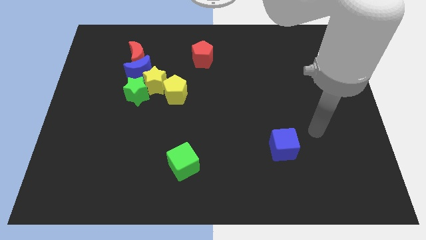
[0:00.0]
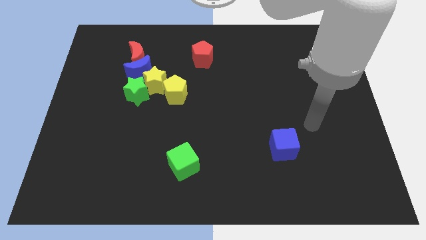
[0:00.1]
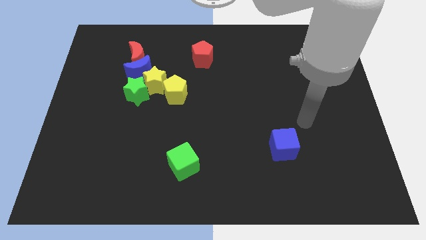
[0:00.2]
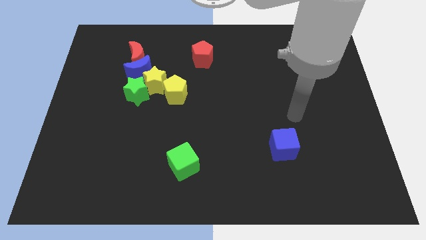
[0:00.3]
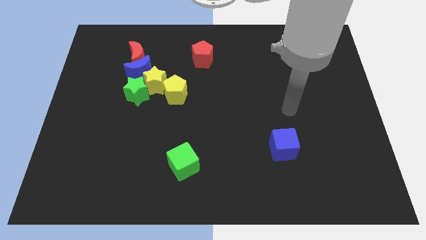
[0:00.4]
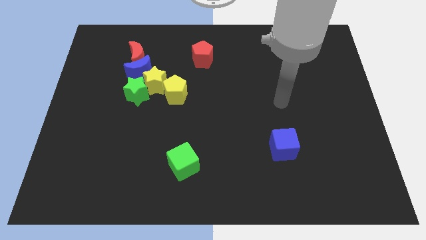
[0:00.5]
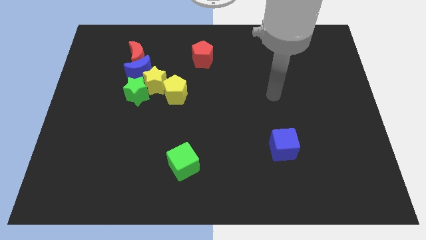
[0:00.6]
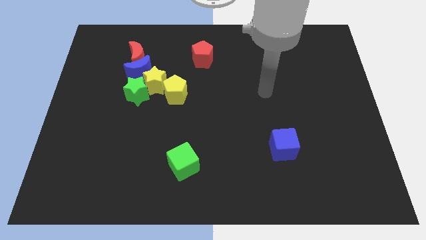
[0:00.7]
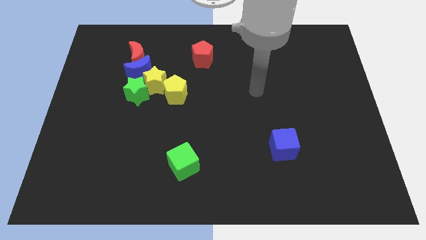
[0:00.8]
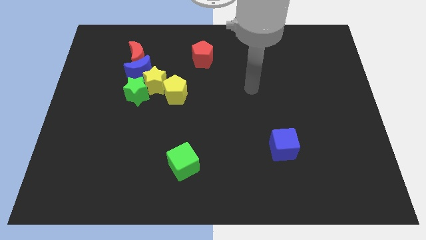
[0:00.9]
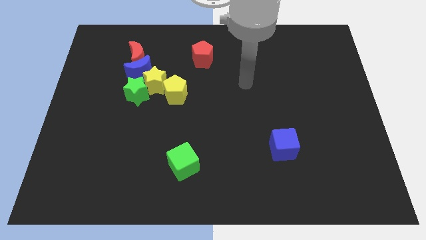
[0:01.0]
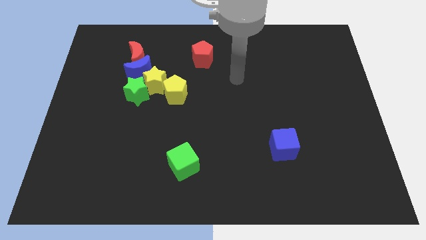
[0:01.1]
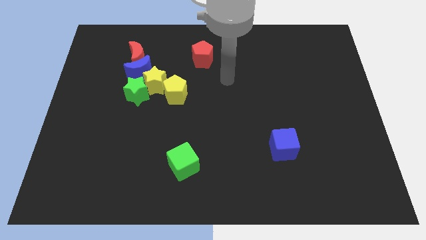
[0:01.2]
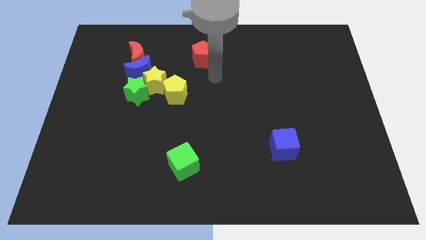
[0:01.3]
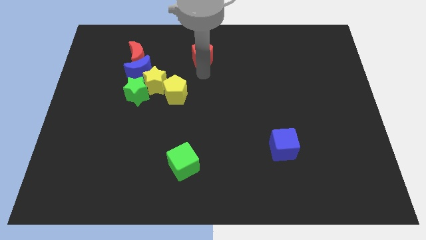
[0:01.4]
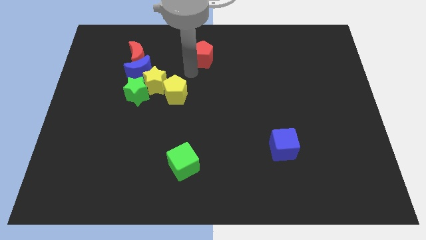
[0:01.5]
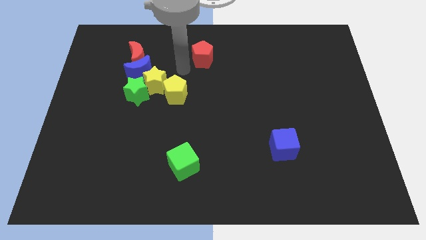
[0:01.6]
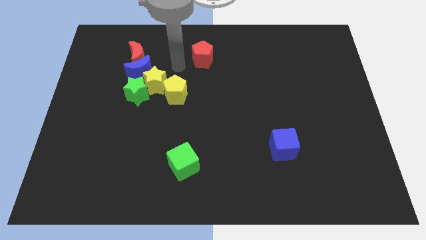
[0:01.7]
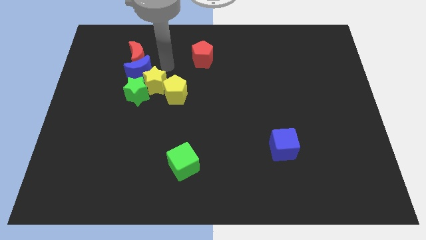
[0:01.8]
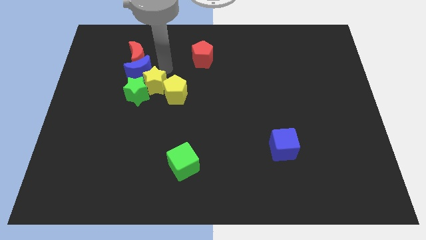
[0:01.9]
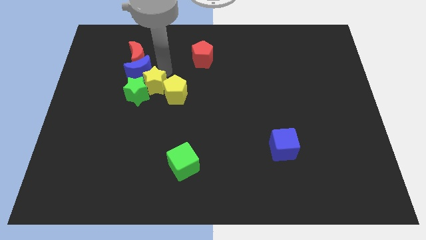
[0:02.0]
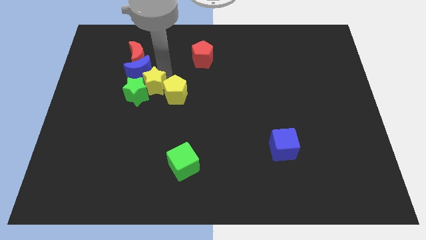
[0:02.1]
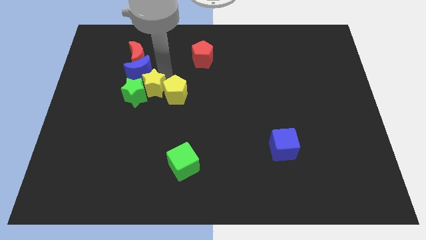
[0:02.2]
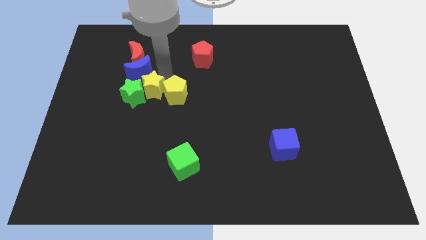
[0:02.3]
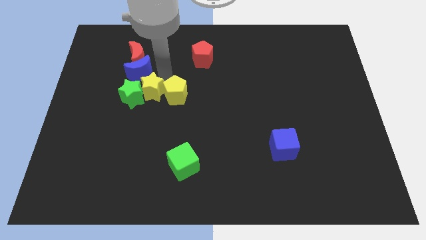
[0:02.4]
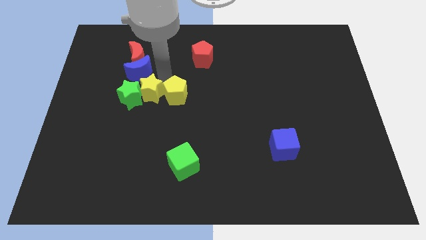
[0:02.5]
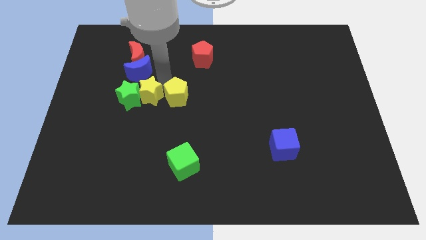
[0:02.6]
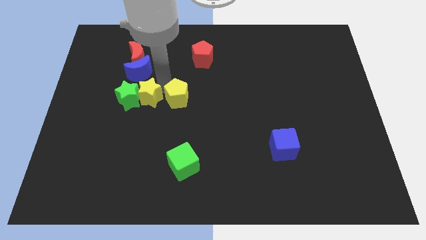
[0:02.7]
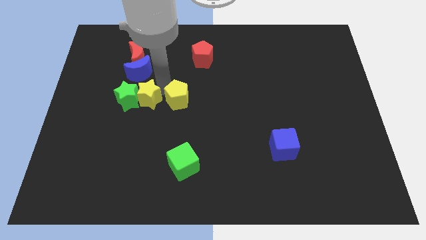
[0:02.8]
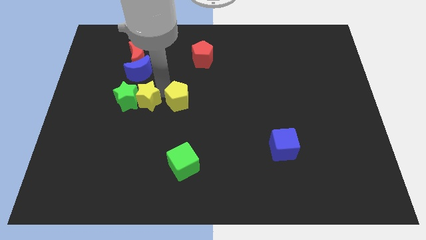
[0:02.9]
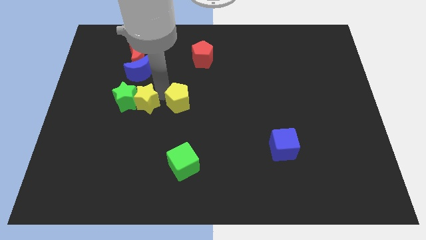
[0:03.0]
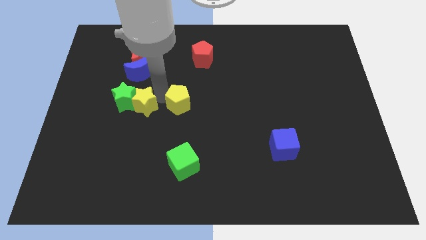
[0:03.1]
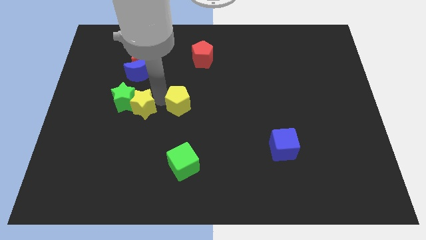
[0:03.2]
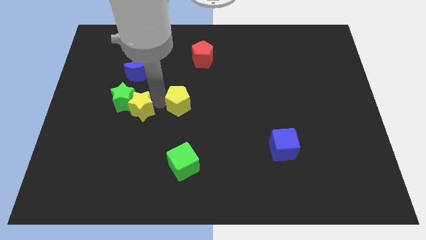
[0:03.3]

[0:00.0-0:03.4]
slide the yellow star a bit downwards and to the left

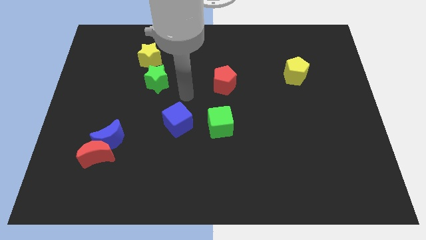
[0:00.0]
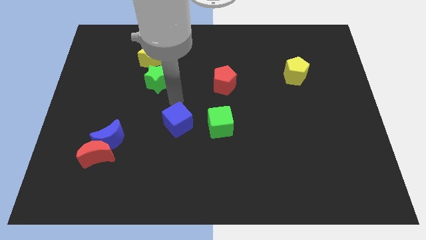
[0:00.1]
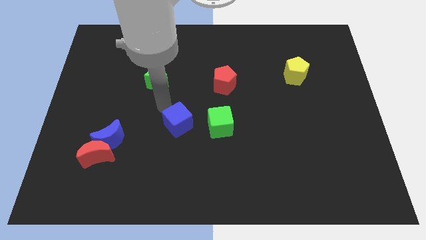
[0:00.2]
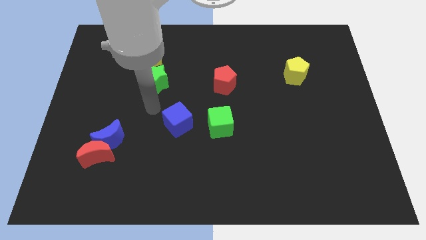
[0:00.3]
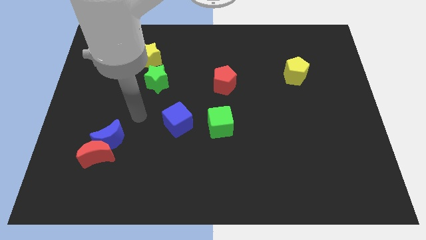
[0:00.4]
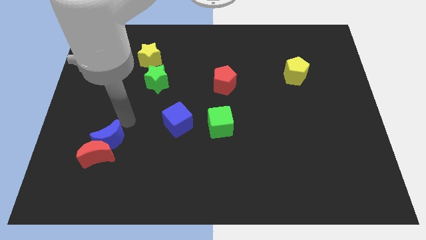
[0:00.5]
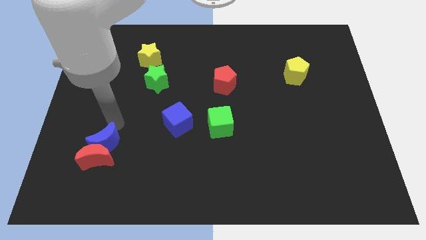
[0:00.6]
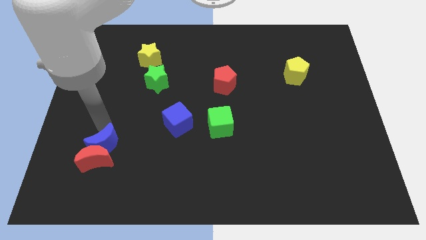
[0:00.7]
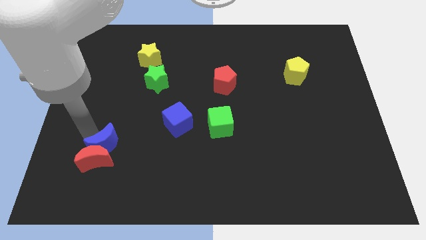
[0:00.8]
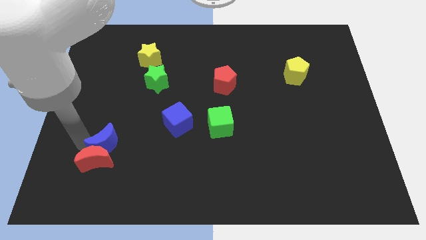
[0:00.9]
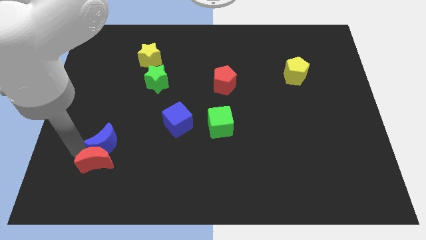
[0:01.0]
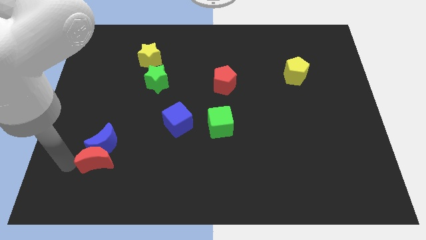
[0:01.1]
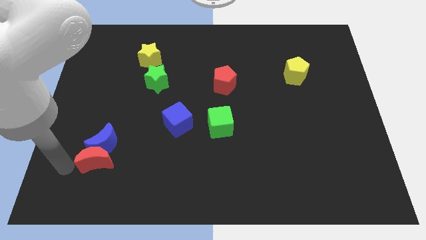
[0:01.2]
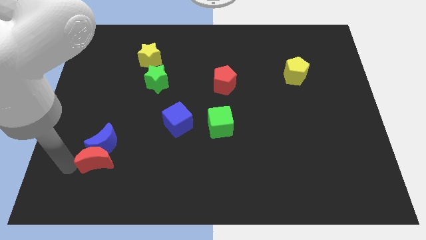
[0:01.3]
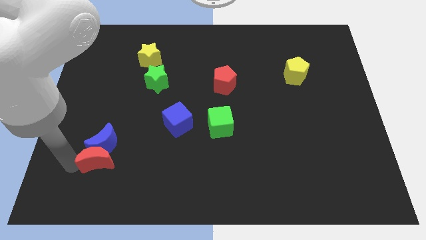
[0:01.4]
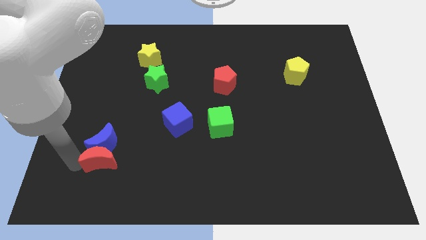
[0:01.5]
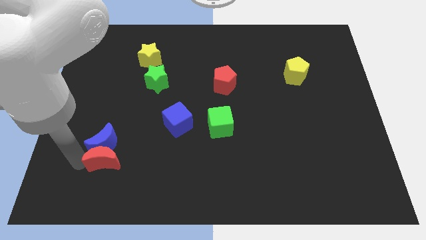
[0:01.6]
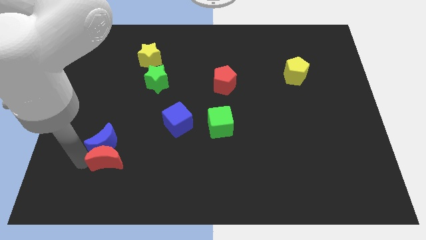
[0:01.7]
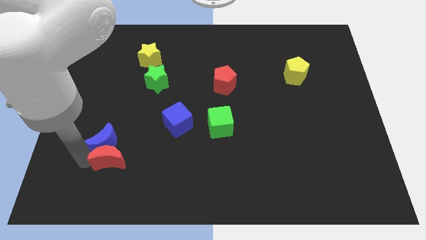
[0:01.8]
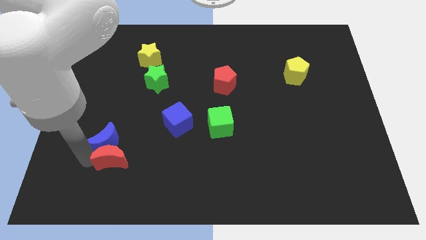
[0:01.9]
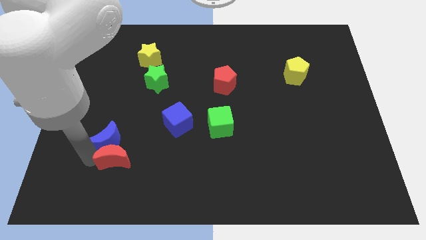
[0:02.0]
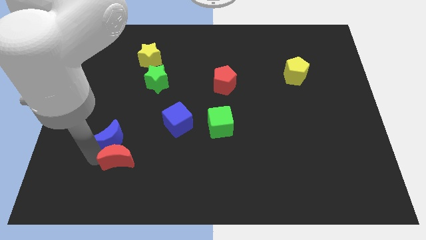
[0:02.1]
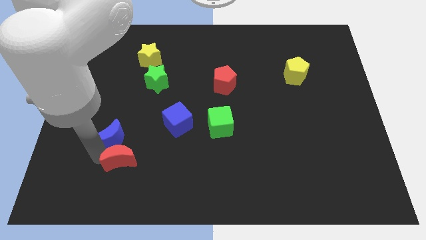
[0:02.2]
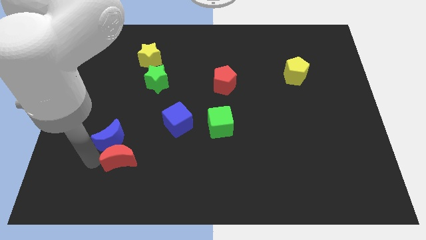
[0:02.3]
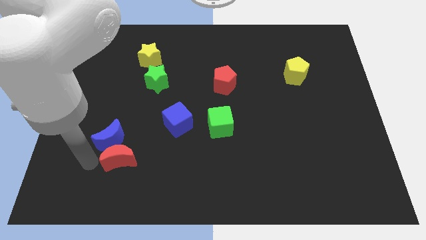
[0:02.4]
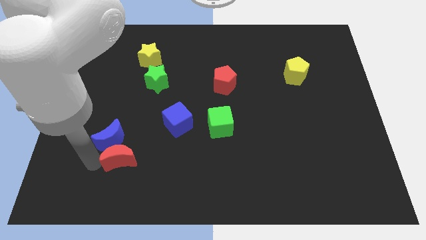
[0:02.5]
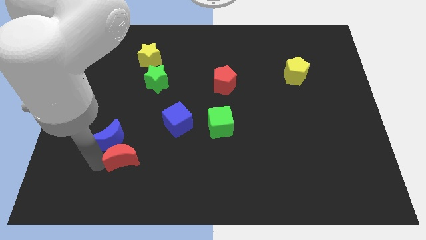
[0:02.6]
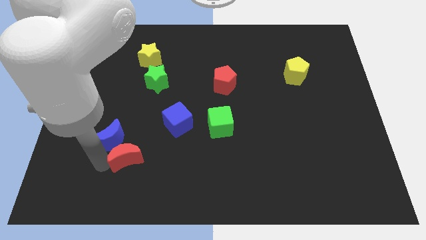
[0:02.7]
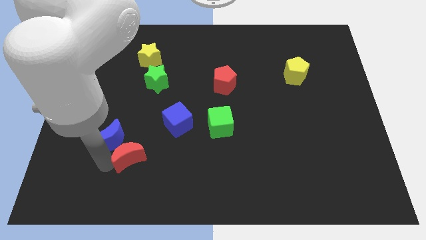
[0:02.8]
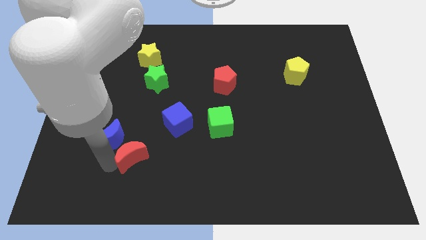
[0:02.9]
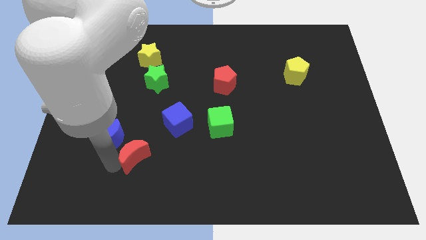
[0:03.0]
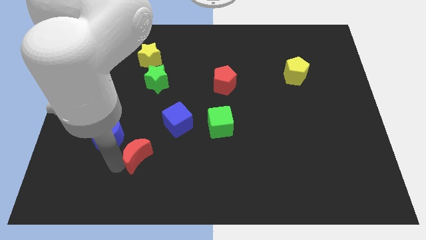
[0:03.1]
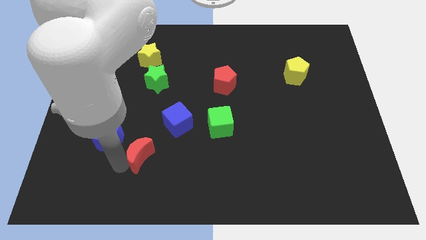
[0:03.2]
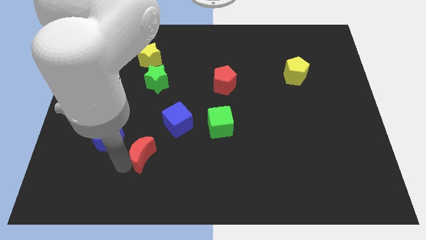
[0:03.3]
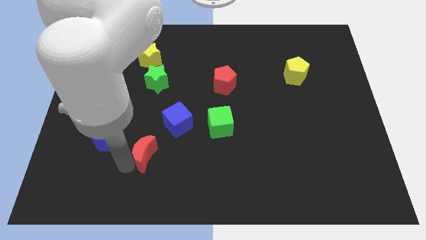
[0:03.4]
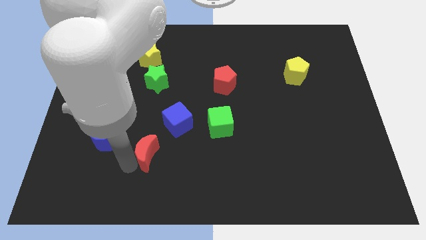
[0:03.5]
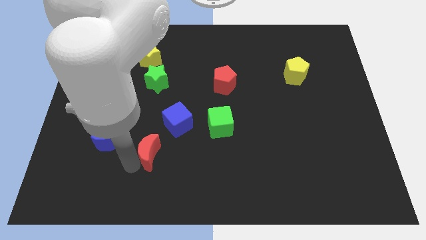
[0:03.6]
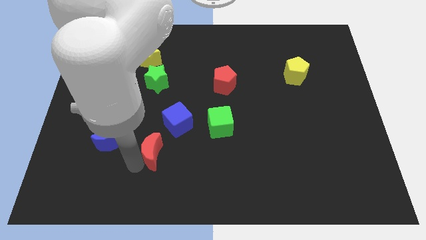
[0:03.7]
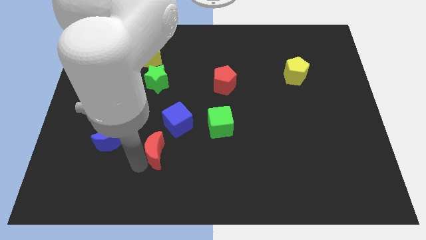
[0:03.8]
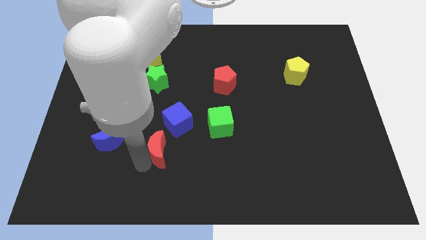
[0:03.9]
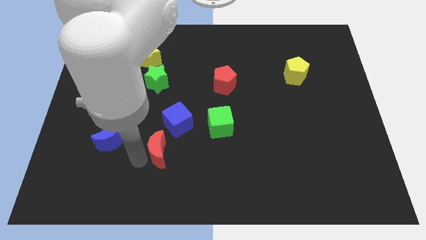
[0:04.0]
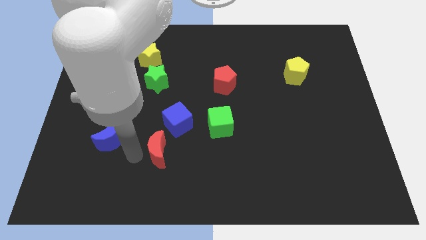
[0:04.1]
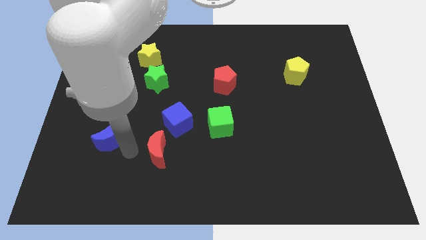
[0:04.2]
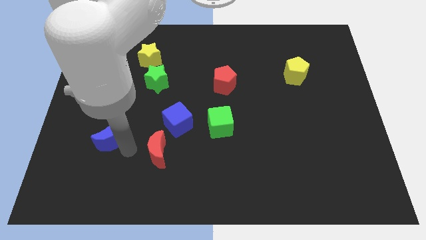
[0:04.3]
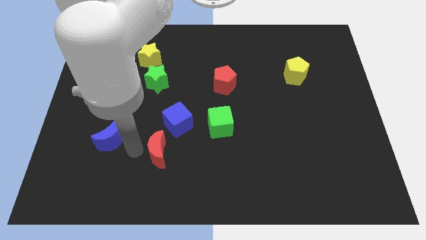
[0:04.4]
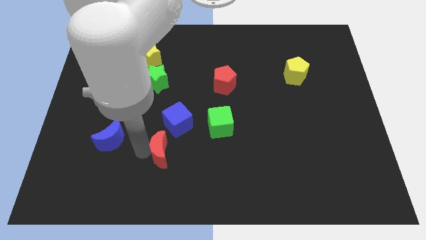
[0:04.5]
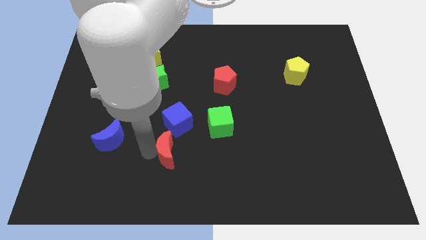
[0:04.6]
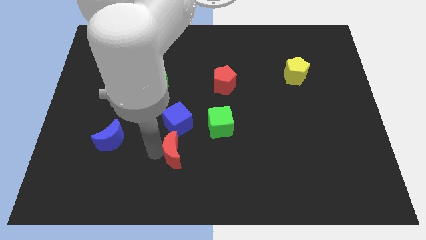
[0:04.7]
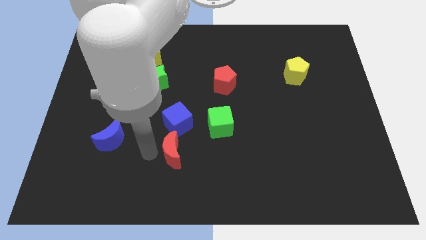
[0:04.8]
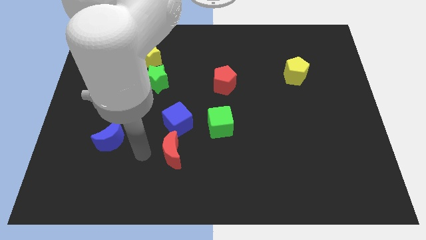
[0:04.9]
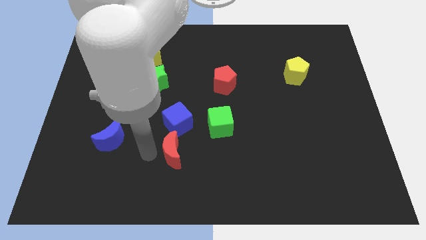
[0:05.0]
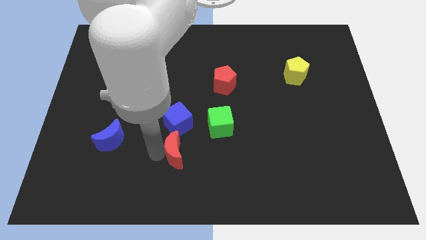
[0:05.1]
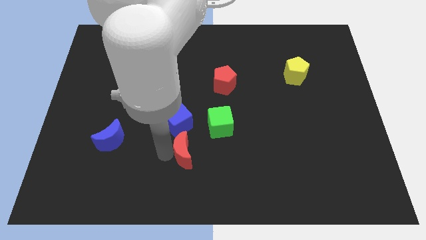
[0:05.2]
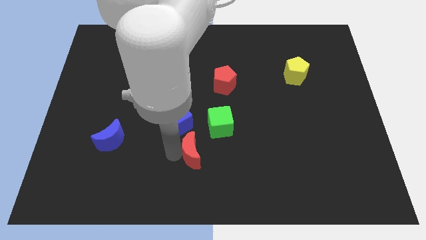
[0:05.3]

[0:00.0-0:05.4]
slide the red moon right
